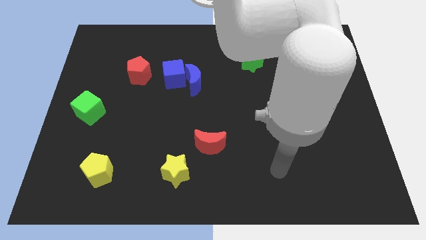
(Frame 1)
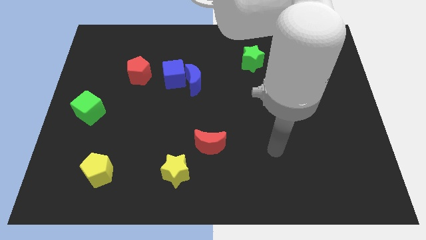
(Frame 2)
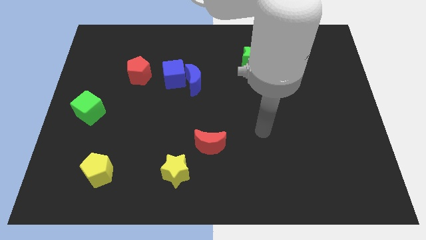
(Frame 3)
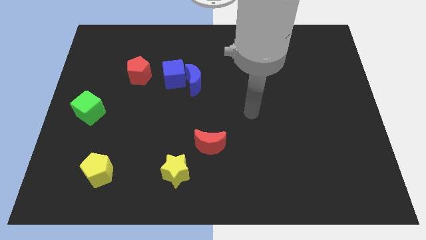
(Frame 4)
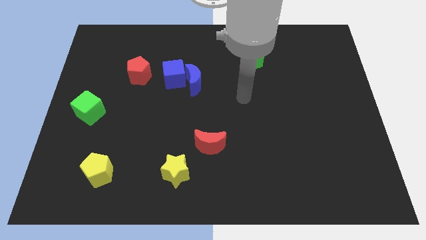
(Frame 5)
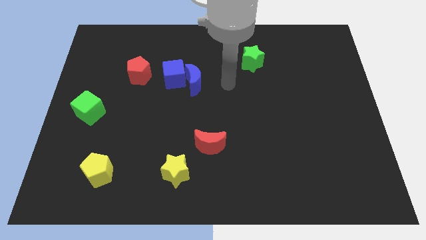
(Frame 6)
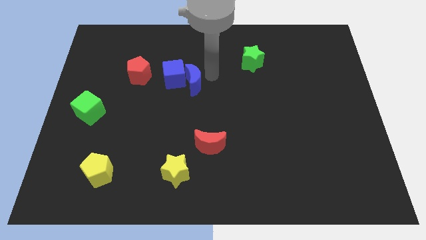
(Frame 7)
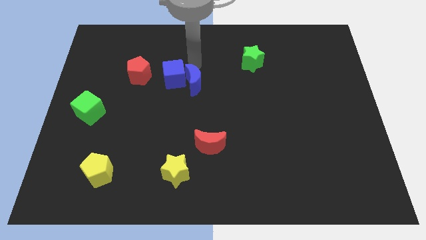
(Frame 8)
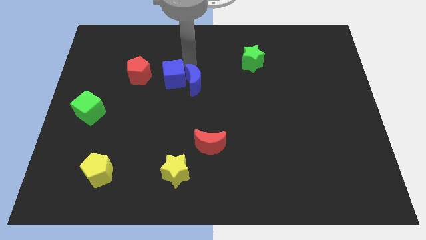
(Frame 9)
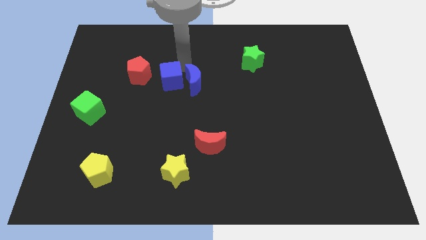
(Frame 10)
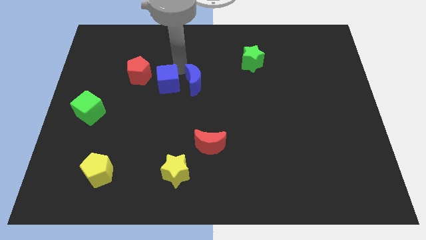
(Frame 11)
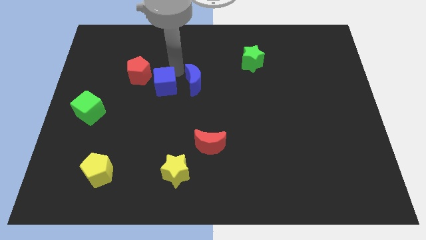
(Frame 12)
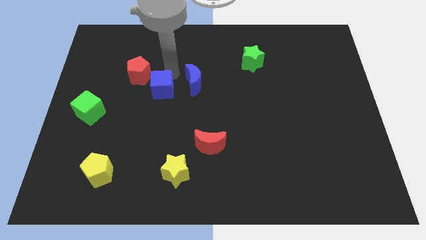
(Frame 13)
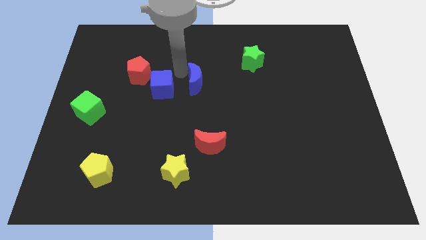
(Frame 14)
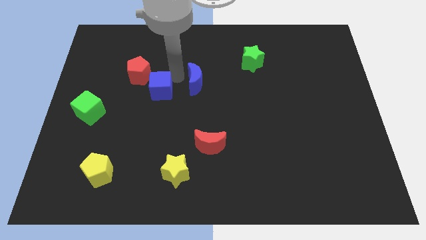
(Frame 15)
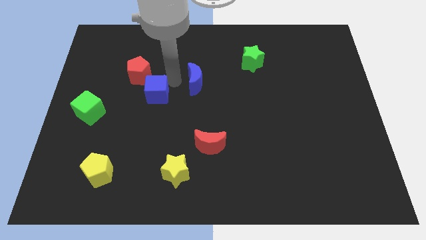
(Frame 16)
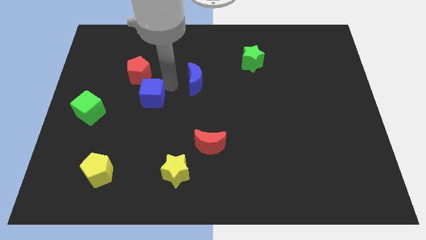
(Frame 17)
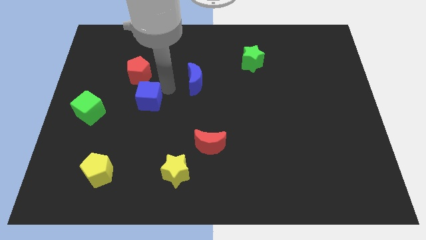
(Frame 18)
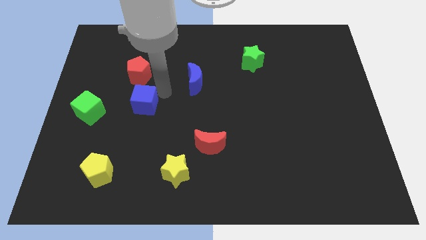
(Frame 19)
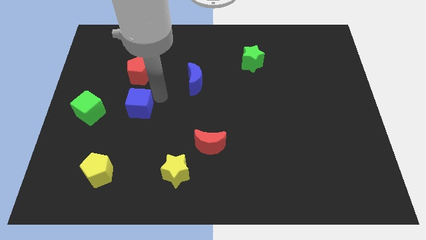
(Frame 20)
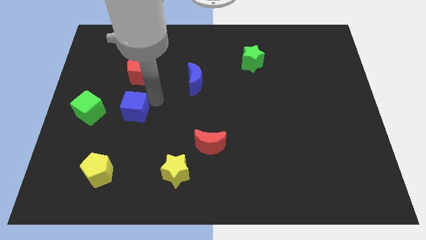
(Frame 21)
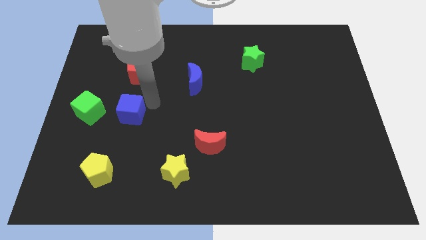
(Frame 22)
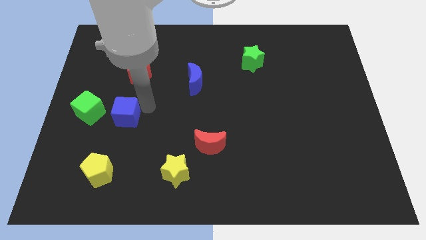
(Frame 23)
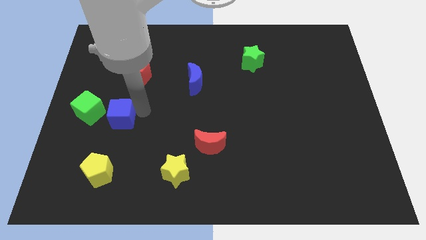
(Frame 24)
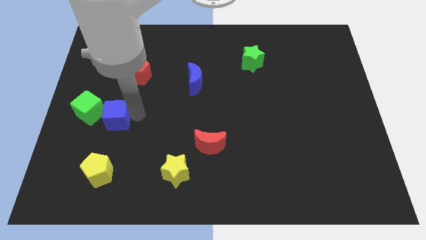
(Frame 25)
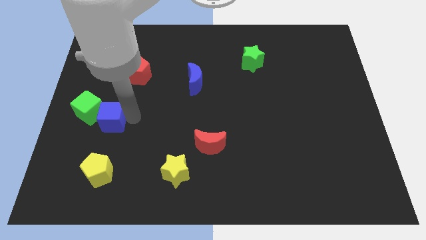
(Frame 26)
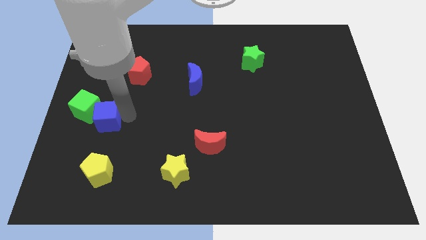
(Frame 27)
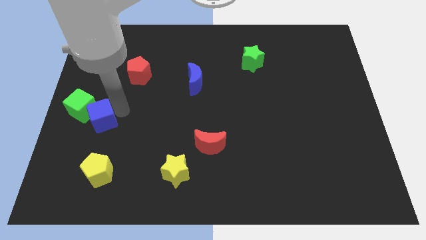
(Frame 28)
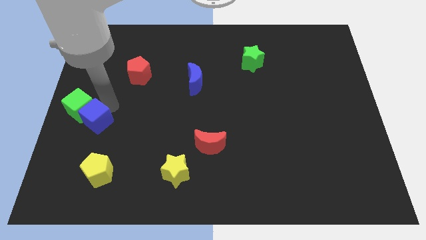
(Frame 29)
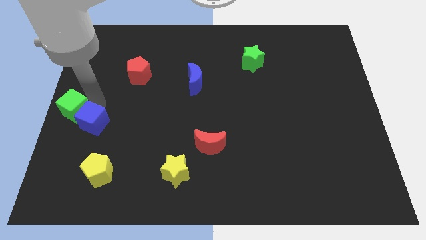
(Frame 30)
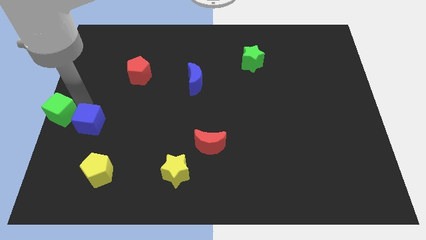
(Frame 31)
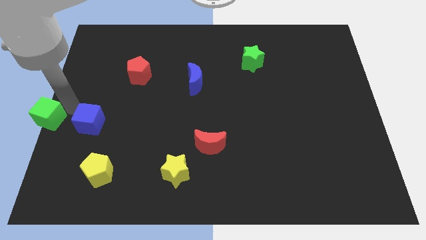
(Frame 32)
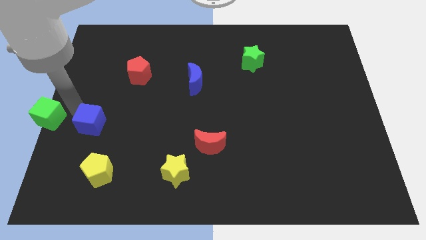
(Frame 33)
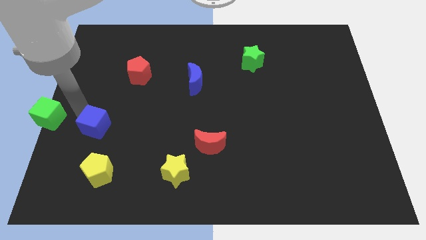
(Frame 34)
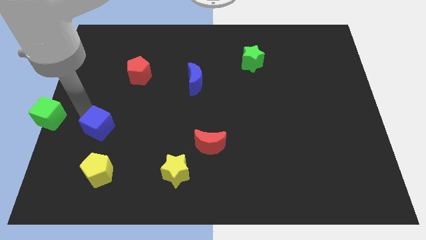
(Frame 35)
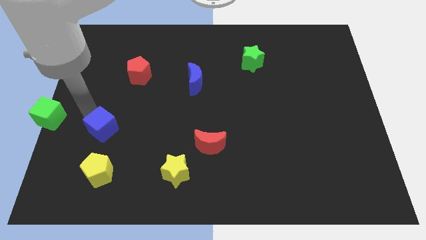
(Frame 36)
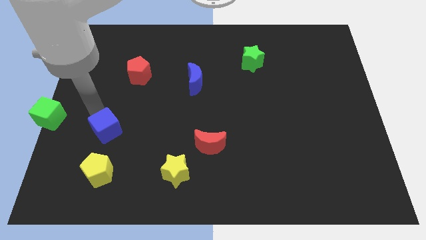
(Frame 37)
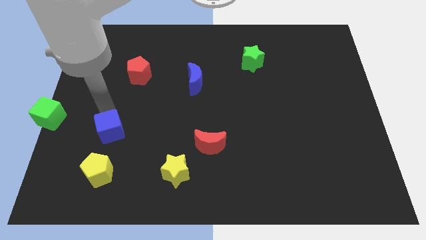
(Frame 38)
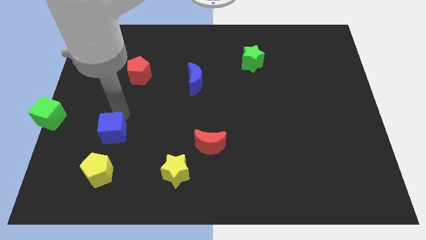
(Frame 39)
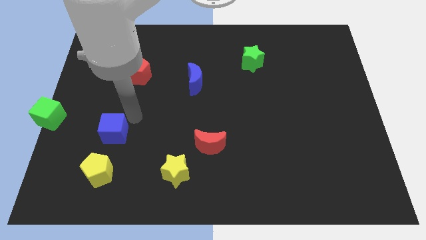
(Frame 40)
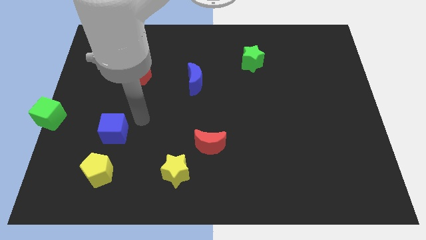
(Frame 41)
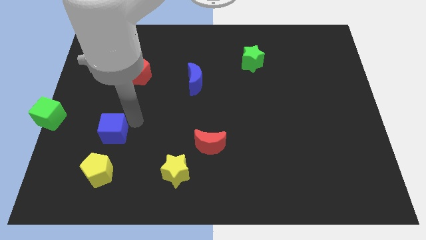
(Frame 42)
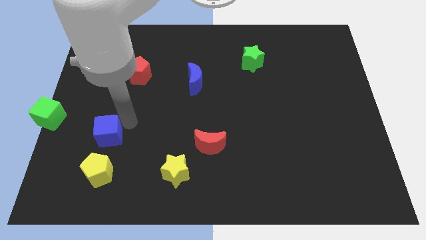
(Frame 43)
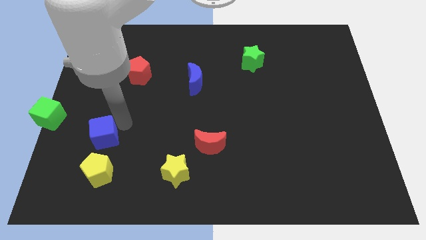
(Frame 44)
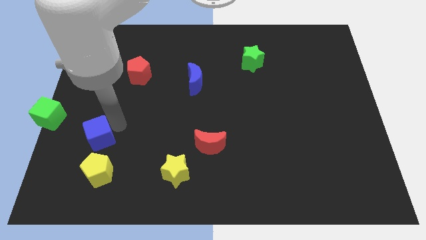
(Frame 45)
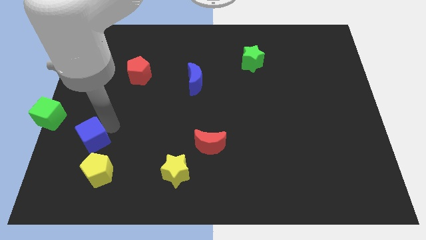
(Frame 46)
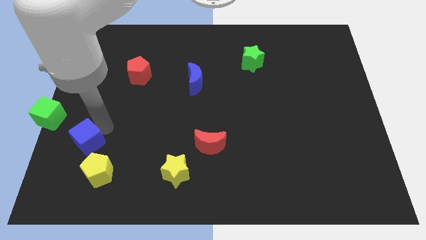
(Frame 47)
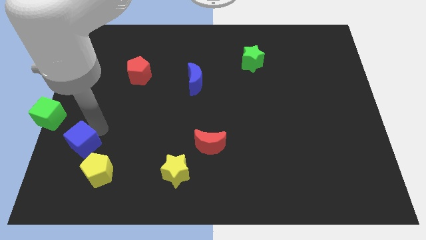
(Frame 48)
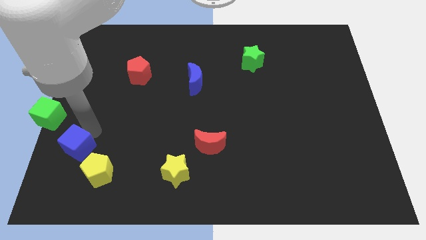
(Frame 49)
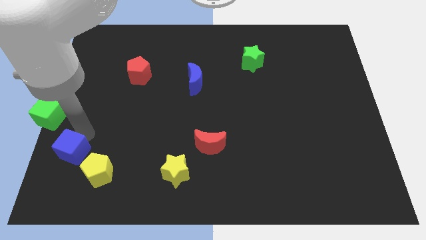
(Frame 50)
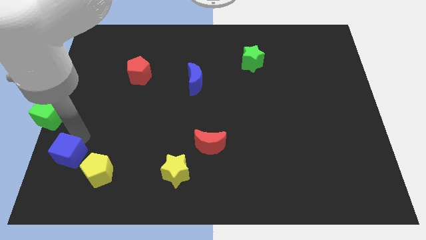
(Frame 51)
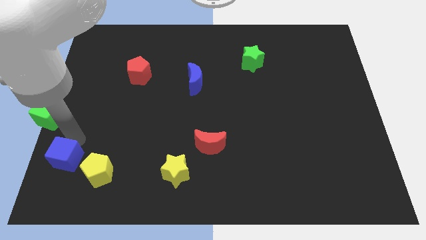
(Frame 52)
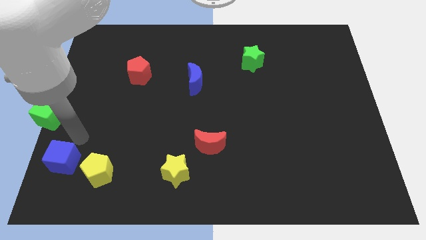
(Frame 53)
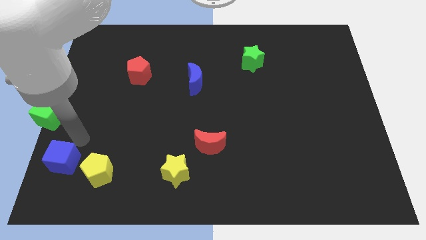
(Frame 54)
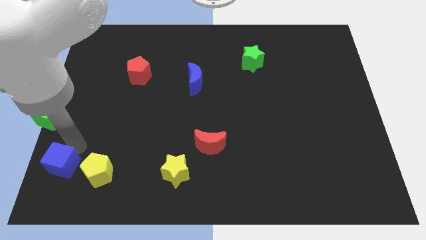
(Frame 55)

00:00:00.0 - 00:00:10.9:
slide the blue cube to the bottom left
